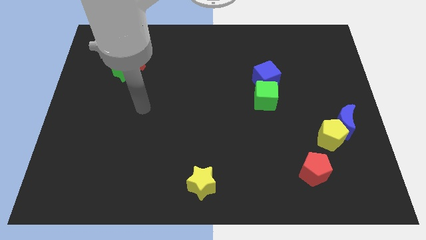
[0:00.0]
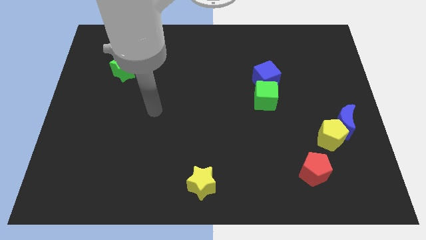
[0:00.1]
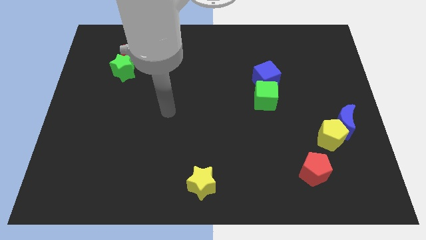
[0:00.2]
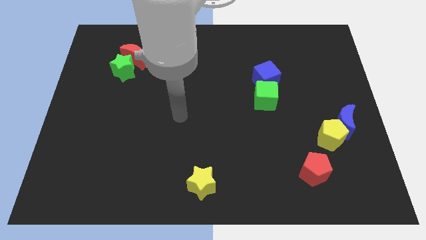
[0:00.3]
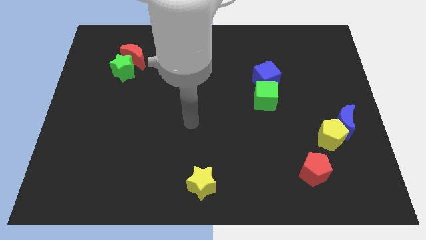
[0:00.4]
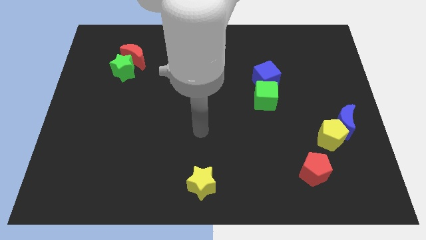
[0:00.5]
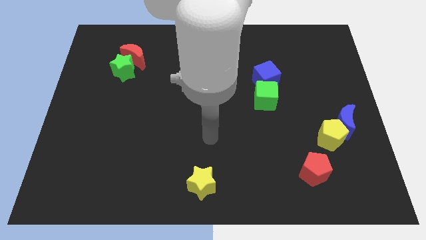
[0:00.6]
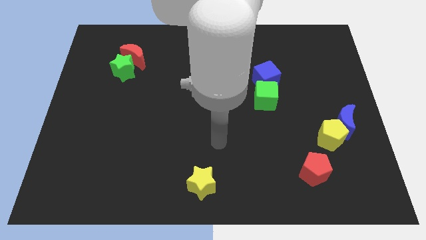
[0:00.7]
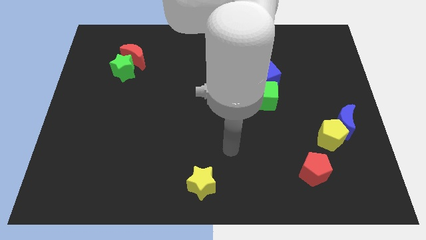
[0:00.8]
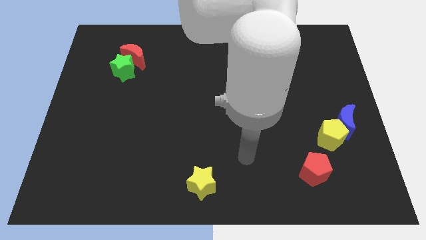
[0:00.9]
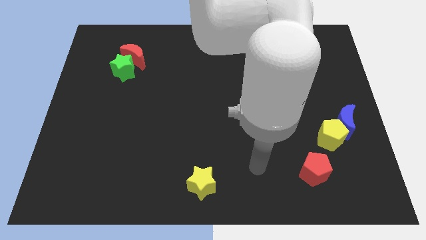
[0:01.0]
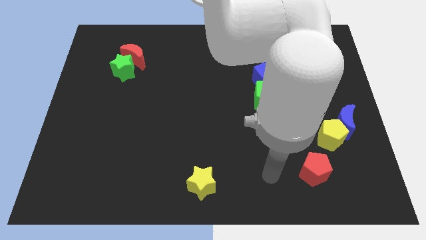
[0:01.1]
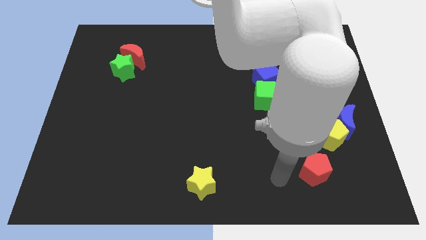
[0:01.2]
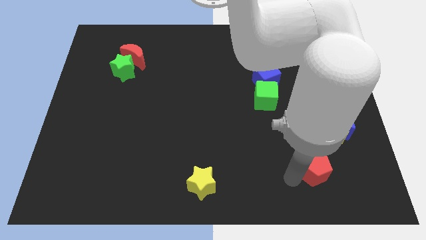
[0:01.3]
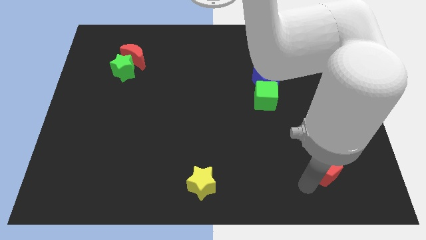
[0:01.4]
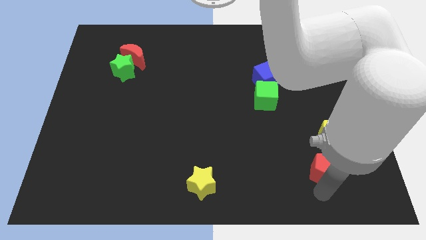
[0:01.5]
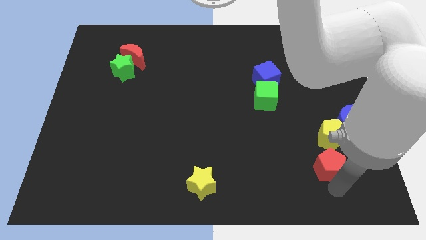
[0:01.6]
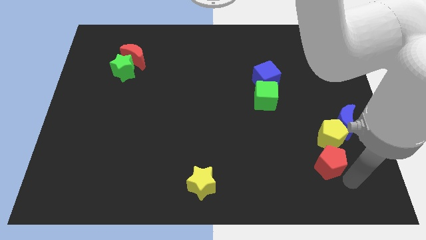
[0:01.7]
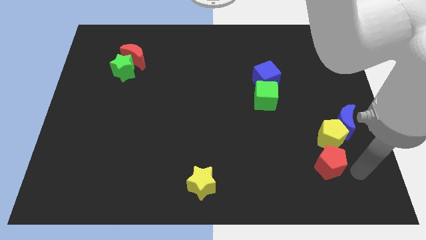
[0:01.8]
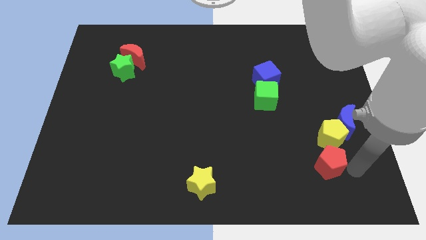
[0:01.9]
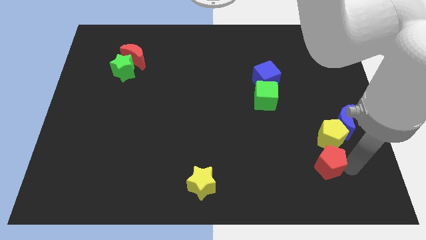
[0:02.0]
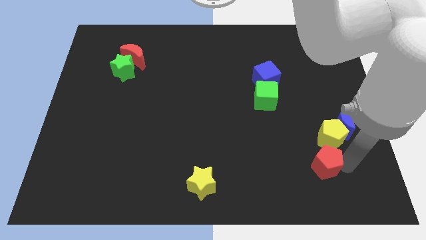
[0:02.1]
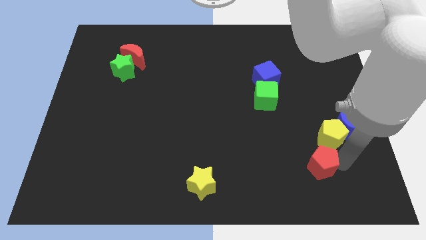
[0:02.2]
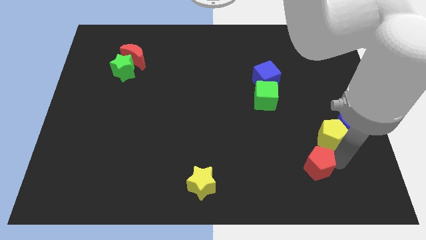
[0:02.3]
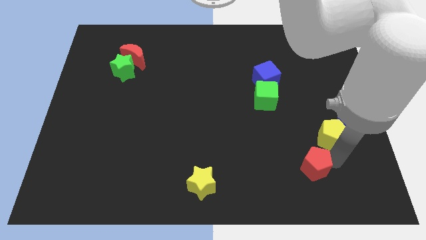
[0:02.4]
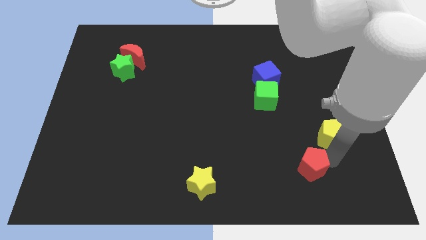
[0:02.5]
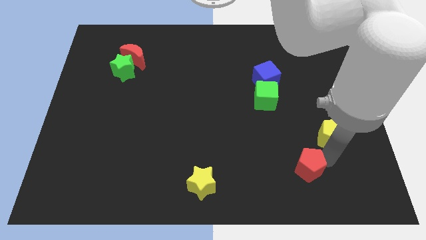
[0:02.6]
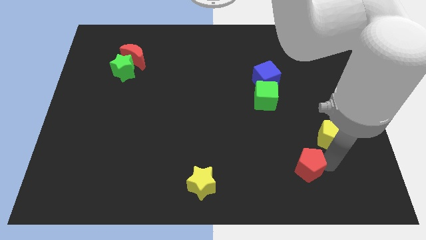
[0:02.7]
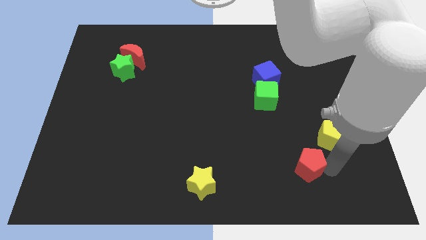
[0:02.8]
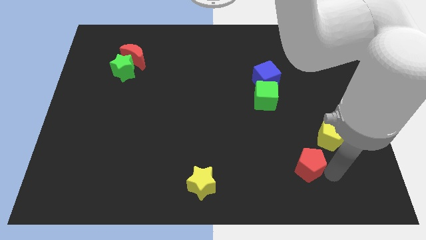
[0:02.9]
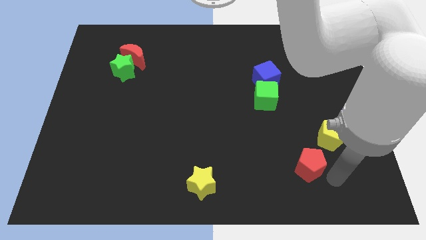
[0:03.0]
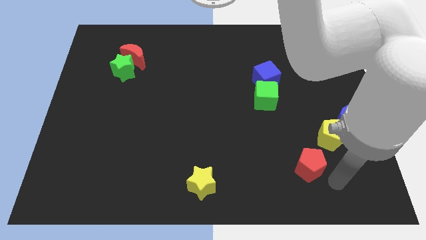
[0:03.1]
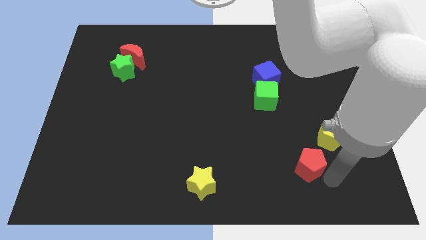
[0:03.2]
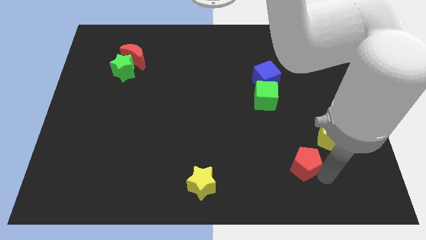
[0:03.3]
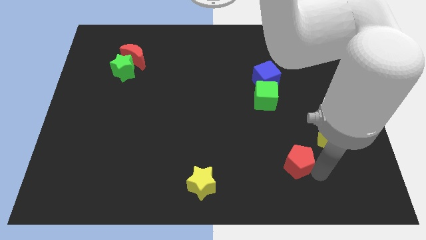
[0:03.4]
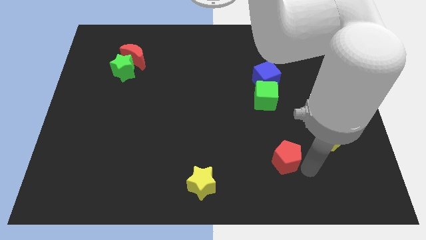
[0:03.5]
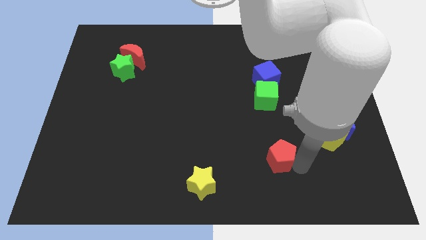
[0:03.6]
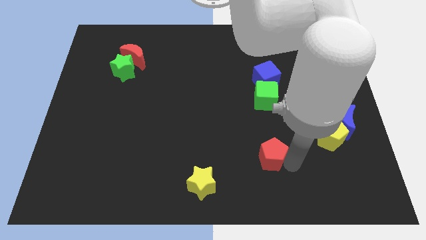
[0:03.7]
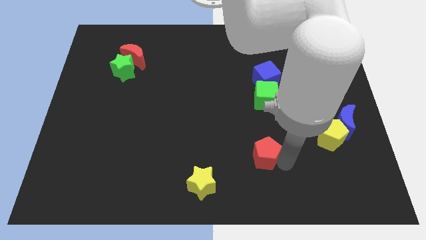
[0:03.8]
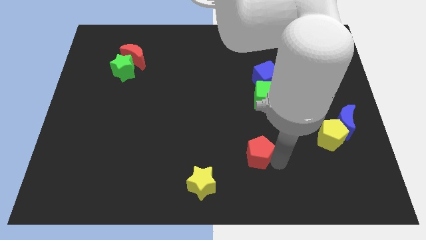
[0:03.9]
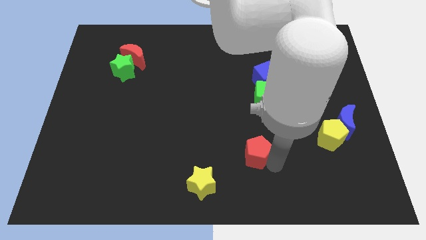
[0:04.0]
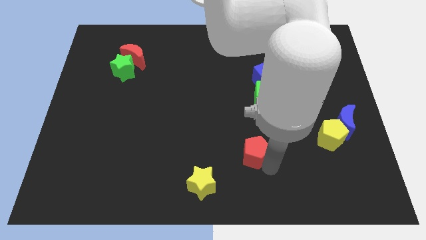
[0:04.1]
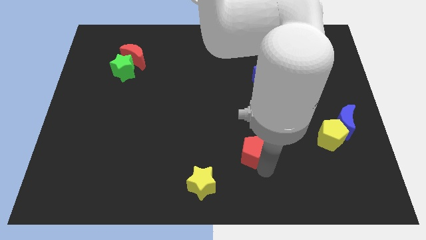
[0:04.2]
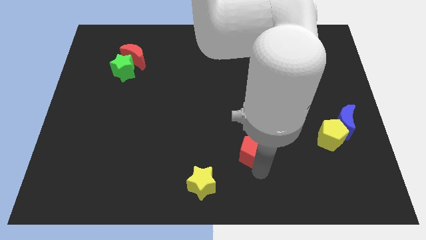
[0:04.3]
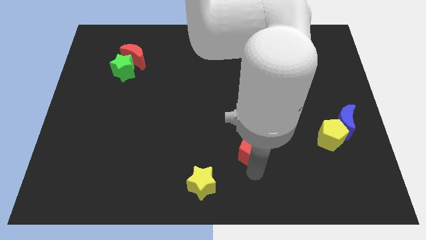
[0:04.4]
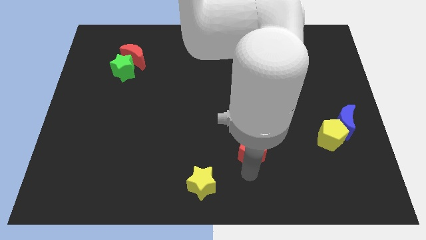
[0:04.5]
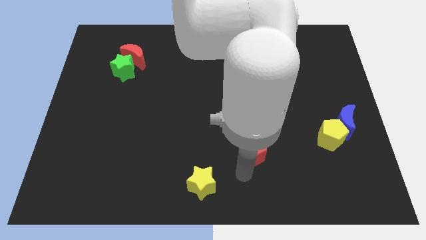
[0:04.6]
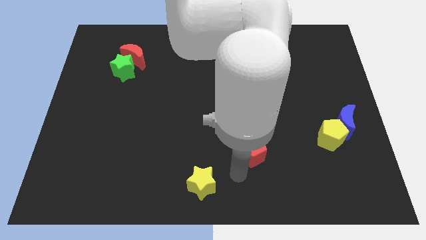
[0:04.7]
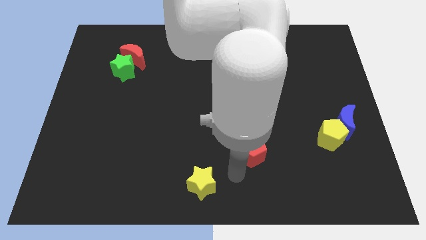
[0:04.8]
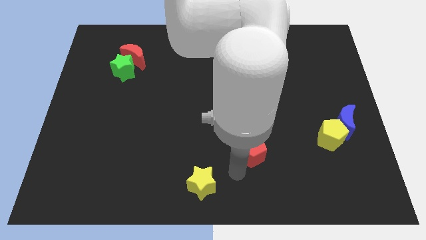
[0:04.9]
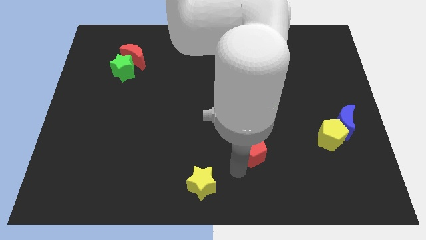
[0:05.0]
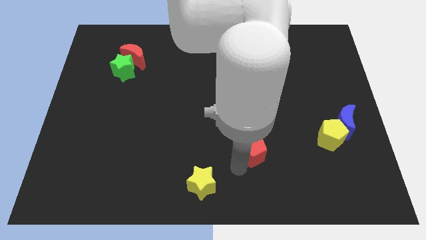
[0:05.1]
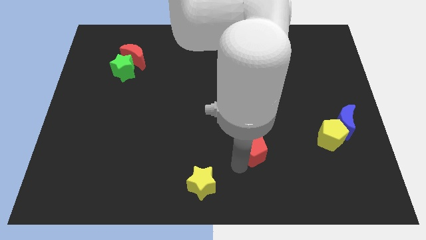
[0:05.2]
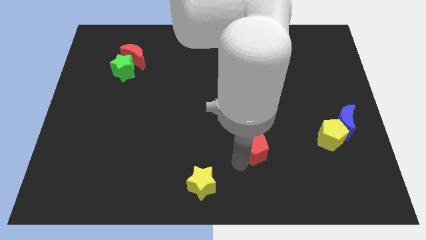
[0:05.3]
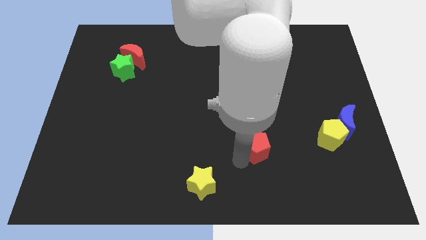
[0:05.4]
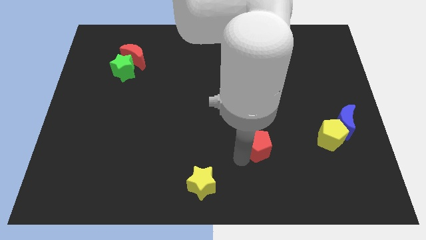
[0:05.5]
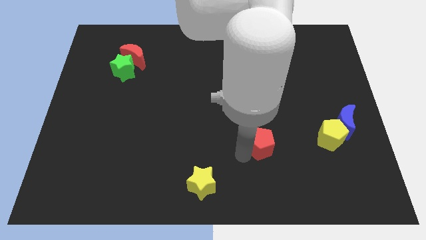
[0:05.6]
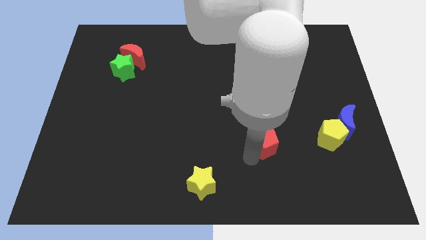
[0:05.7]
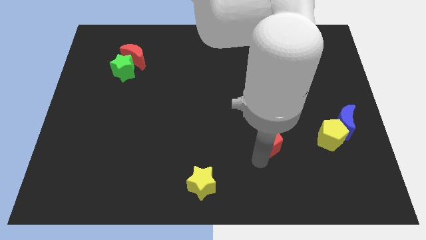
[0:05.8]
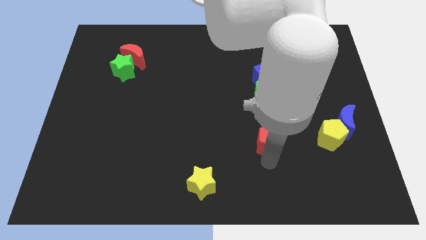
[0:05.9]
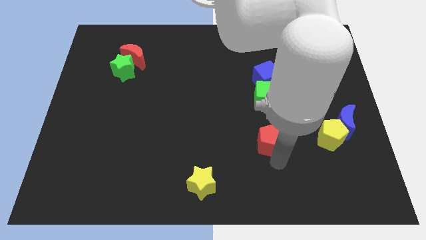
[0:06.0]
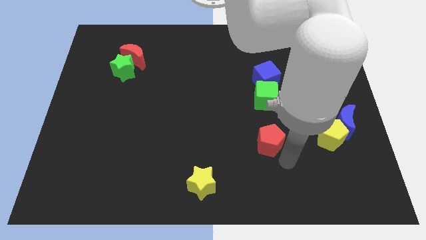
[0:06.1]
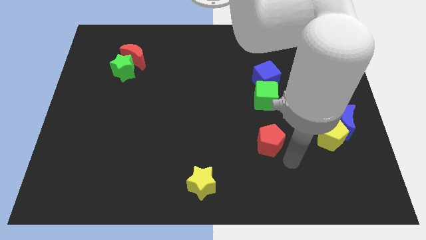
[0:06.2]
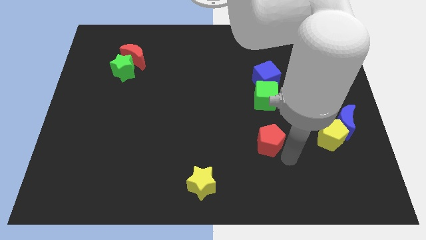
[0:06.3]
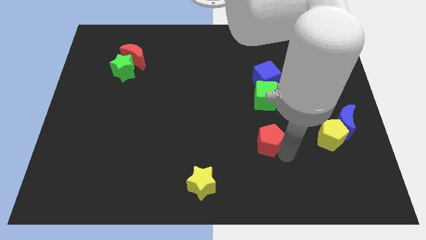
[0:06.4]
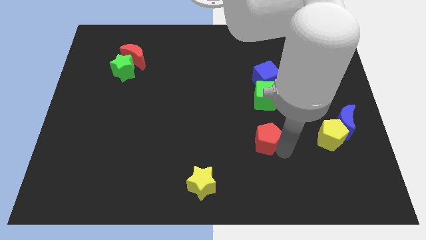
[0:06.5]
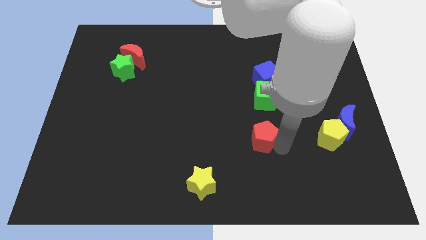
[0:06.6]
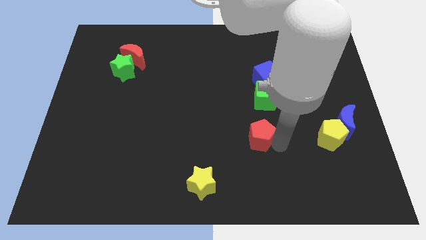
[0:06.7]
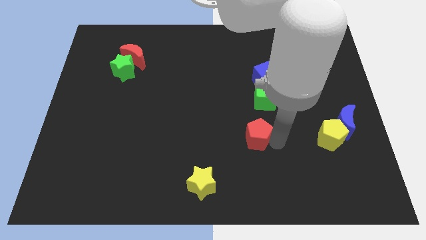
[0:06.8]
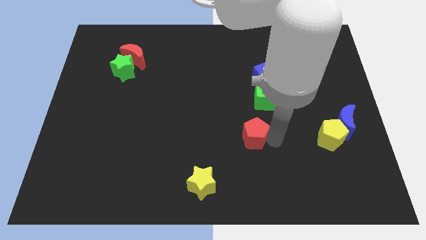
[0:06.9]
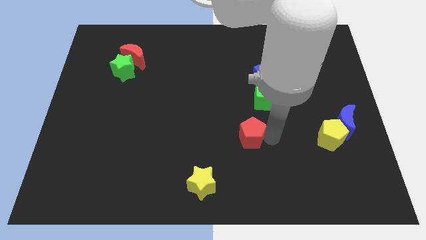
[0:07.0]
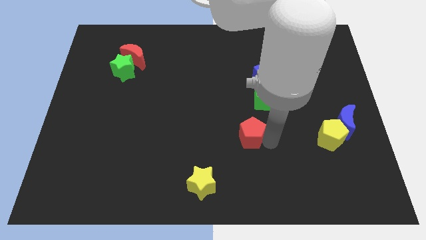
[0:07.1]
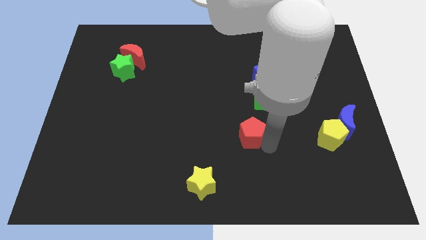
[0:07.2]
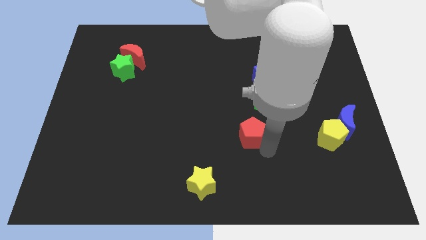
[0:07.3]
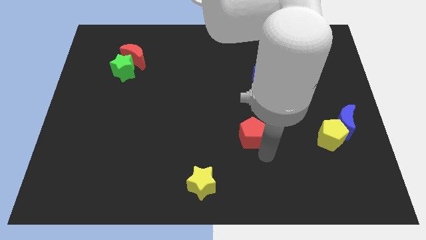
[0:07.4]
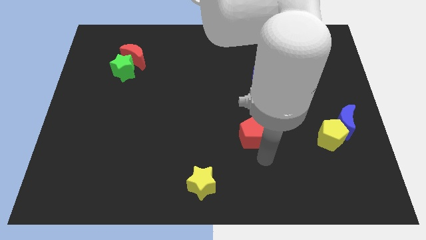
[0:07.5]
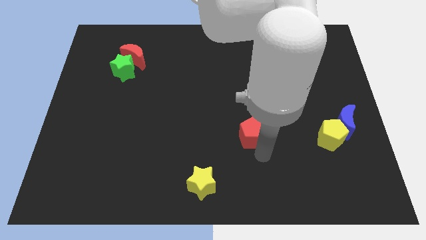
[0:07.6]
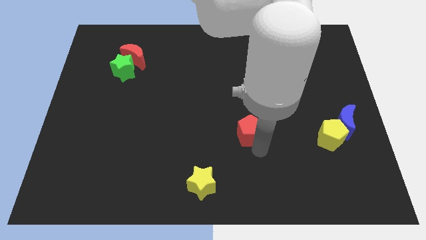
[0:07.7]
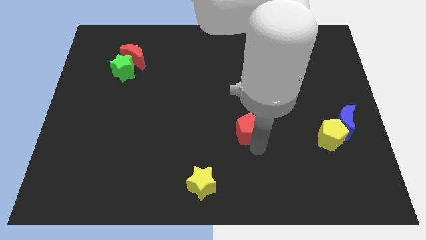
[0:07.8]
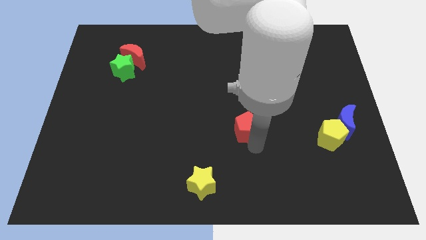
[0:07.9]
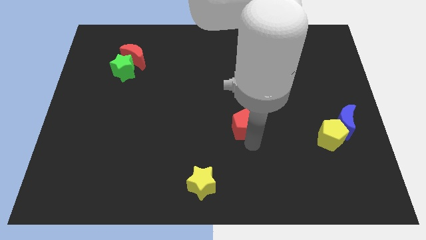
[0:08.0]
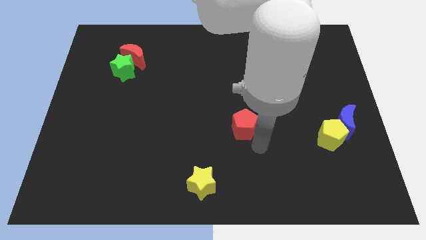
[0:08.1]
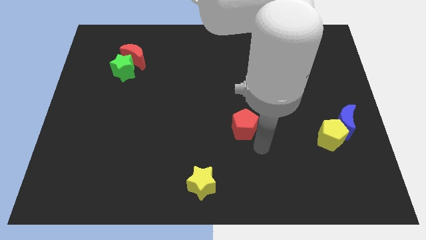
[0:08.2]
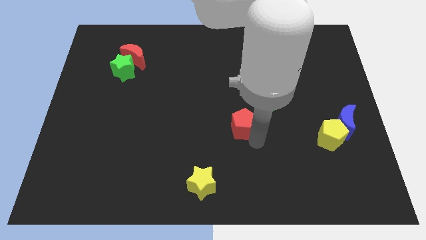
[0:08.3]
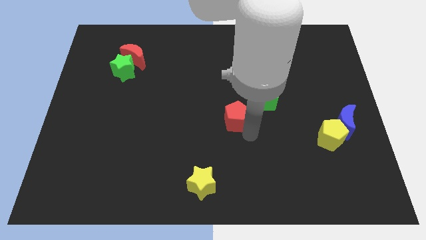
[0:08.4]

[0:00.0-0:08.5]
slide the red pentagon diagonally upwards and to the left
